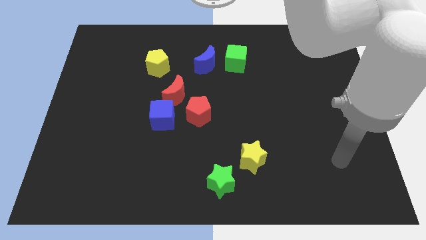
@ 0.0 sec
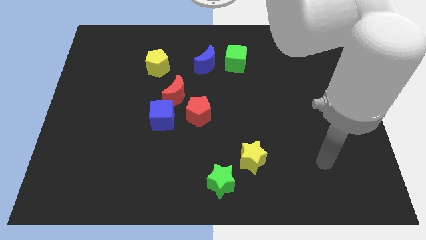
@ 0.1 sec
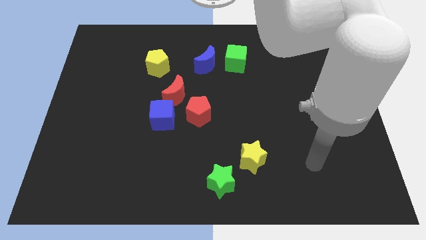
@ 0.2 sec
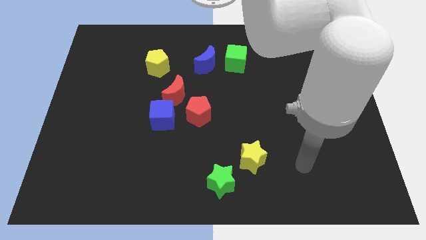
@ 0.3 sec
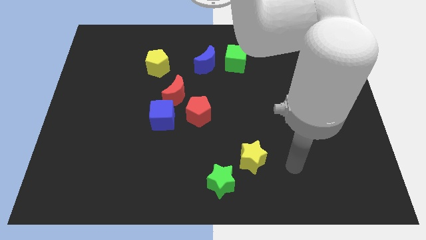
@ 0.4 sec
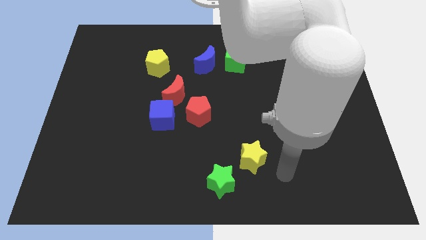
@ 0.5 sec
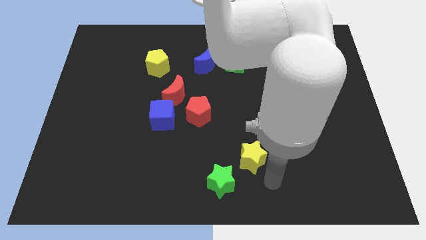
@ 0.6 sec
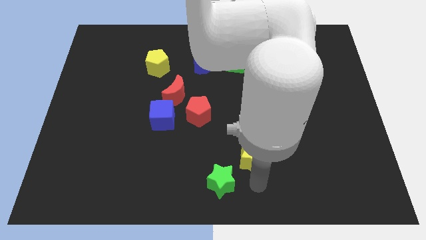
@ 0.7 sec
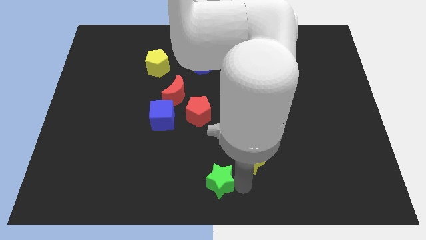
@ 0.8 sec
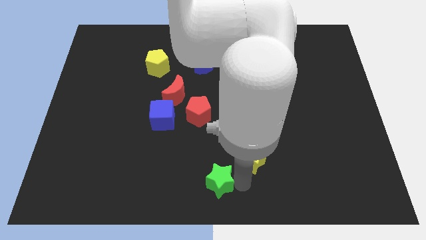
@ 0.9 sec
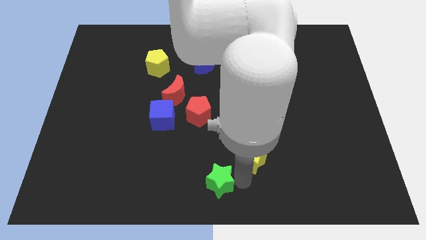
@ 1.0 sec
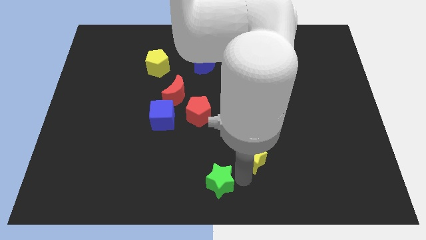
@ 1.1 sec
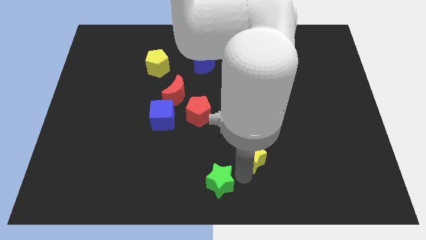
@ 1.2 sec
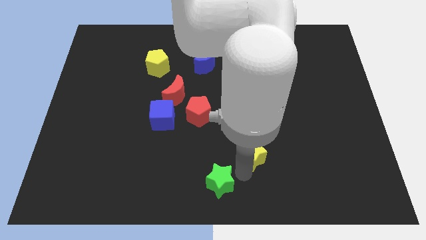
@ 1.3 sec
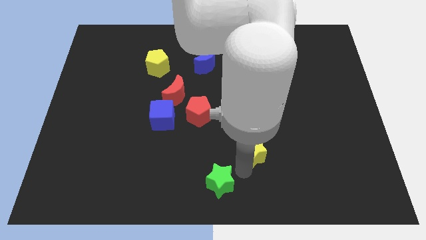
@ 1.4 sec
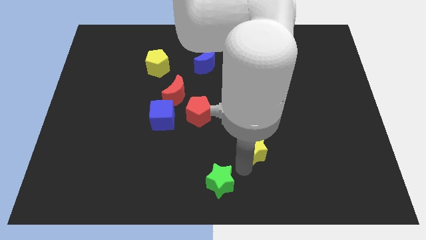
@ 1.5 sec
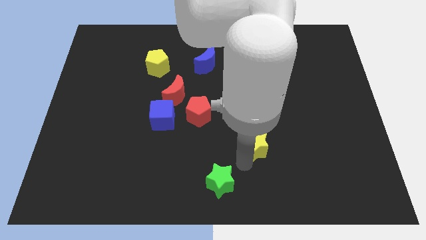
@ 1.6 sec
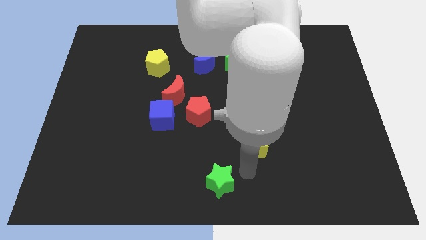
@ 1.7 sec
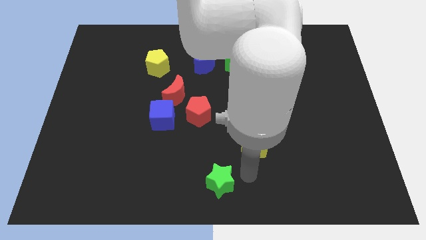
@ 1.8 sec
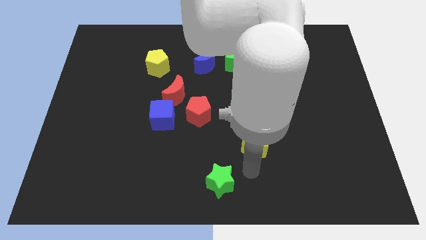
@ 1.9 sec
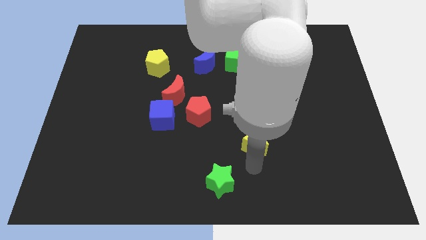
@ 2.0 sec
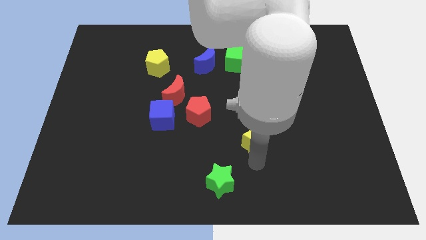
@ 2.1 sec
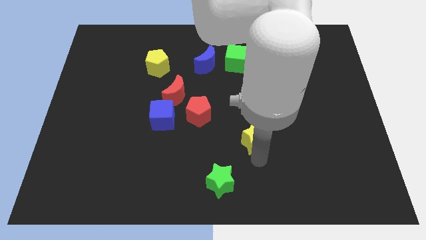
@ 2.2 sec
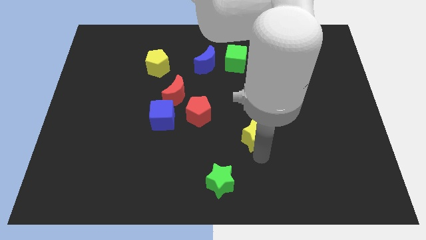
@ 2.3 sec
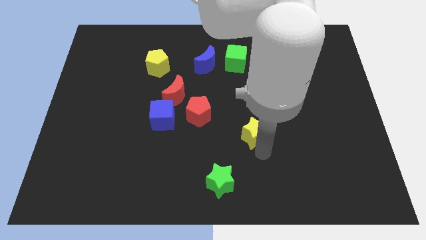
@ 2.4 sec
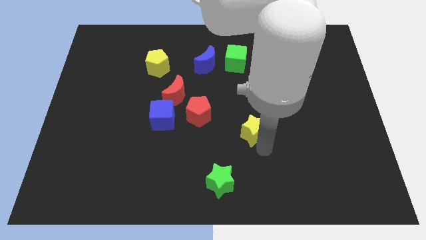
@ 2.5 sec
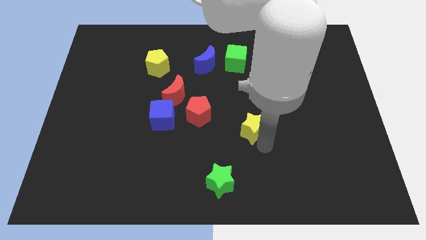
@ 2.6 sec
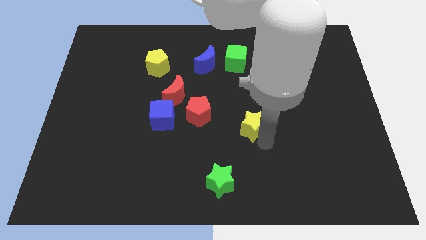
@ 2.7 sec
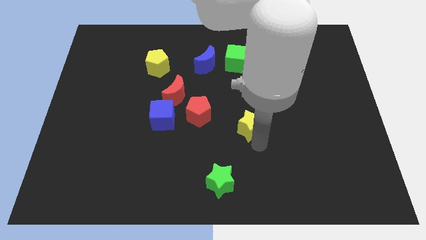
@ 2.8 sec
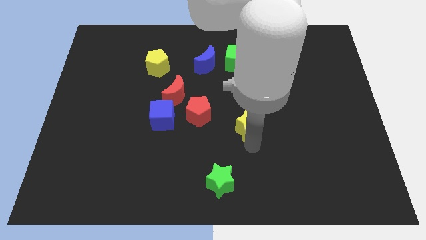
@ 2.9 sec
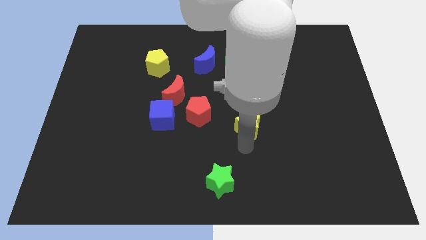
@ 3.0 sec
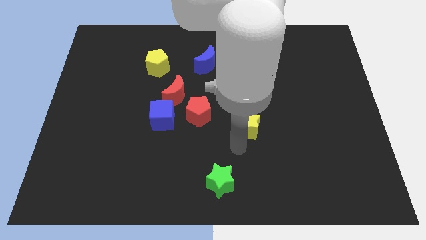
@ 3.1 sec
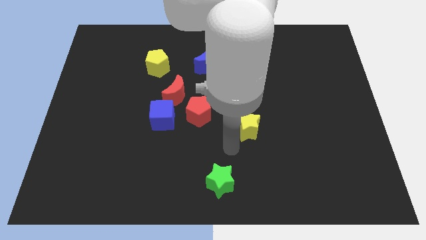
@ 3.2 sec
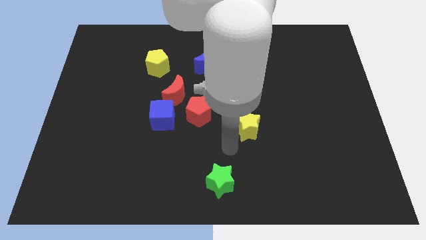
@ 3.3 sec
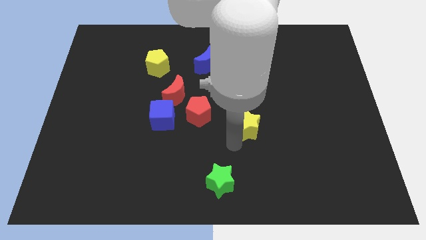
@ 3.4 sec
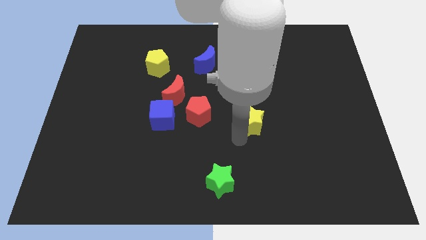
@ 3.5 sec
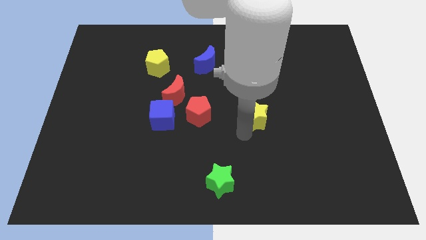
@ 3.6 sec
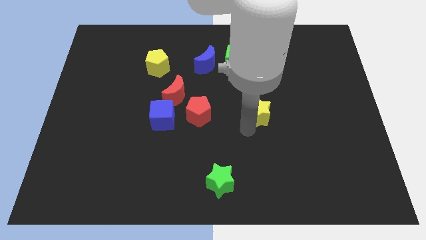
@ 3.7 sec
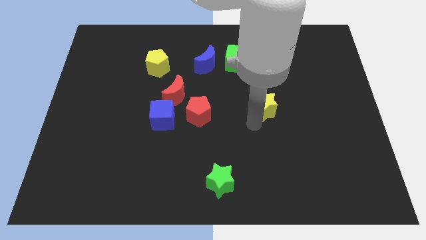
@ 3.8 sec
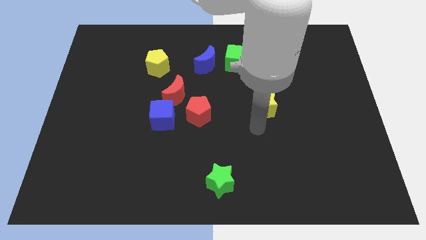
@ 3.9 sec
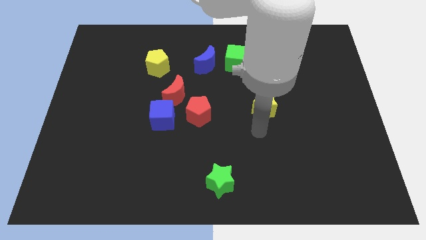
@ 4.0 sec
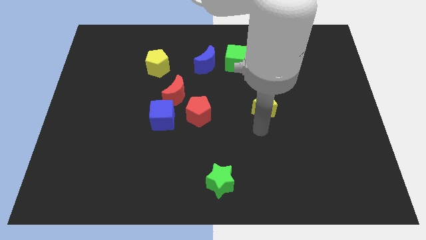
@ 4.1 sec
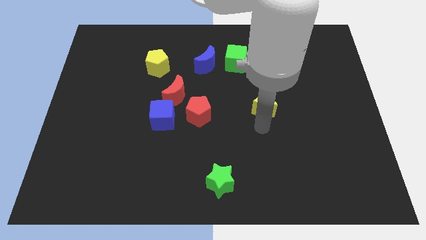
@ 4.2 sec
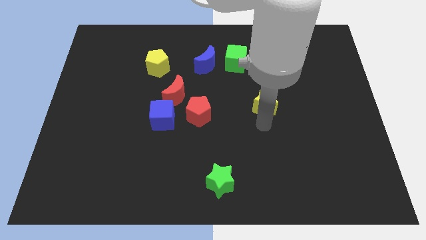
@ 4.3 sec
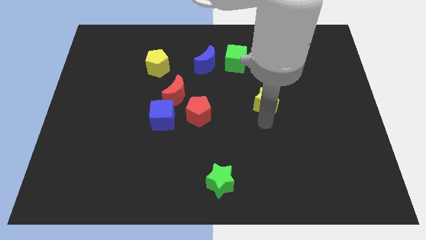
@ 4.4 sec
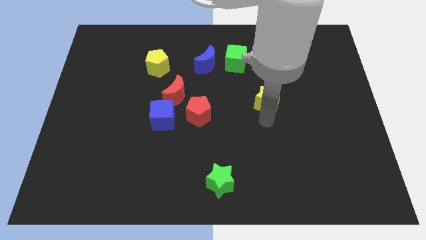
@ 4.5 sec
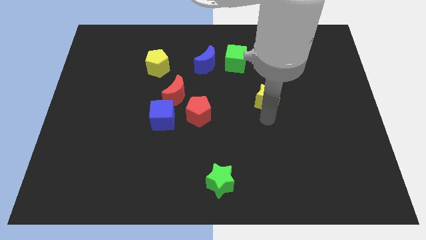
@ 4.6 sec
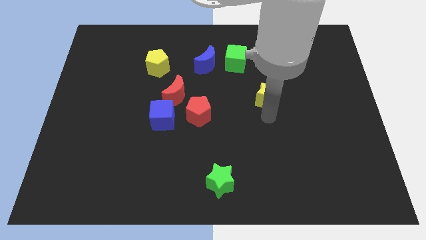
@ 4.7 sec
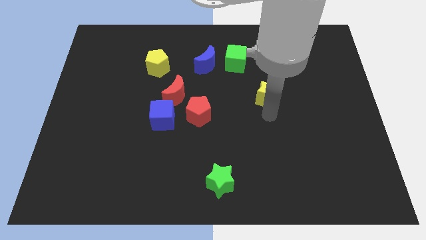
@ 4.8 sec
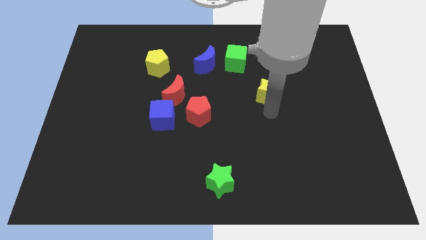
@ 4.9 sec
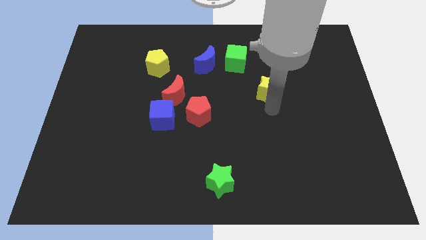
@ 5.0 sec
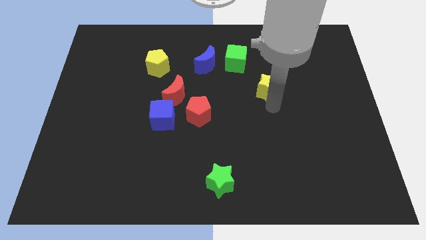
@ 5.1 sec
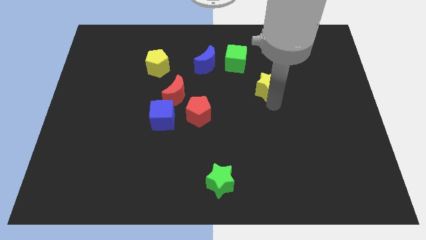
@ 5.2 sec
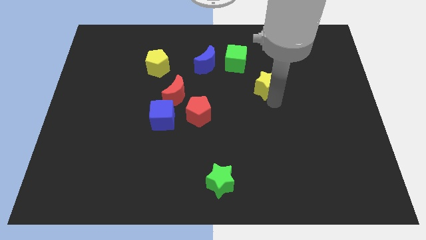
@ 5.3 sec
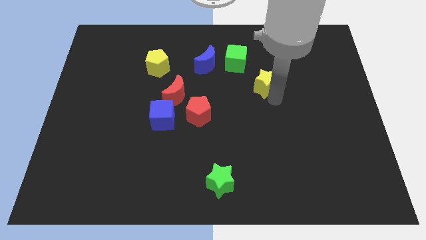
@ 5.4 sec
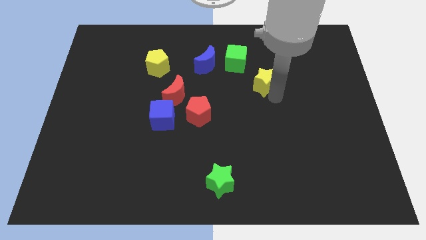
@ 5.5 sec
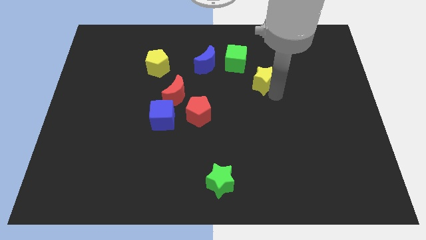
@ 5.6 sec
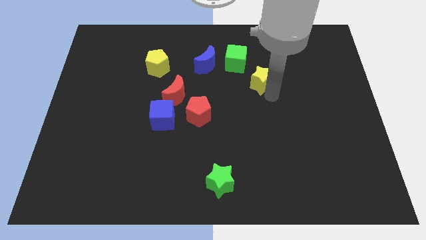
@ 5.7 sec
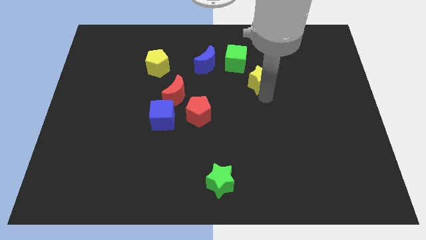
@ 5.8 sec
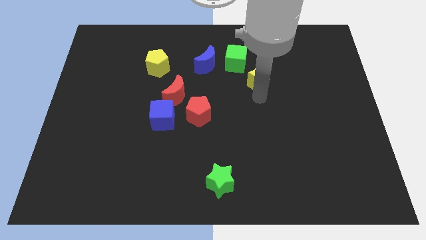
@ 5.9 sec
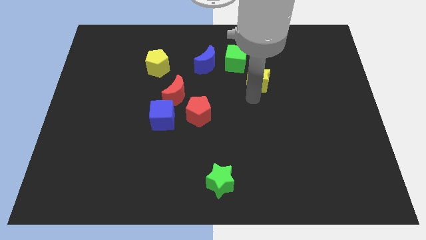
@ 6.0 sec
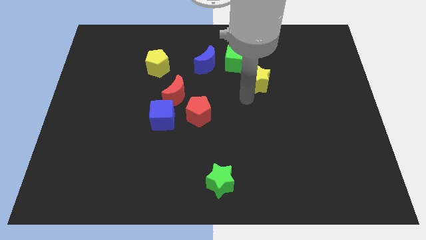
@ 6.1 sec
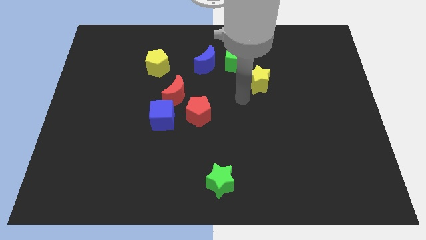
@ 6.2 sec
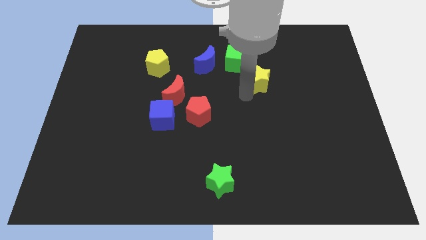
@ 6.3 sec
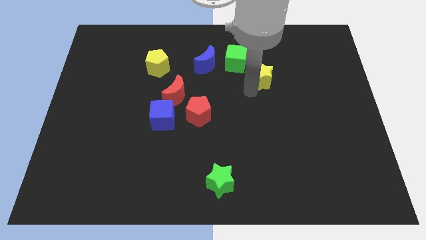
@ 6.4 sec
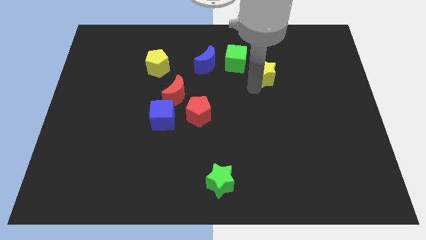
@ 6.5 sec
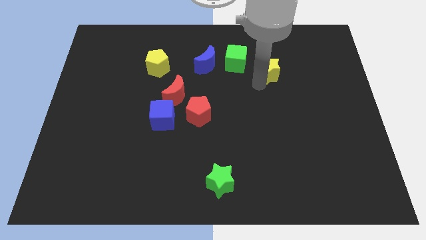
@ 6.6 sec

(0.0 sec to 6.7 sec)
move the yellow star to the right of the green cube
